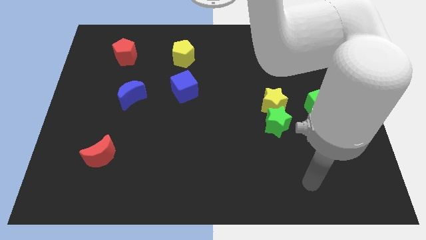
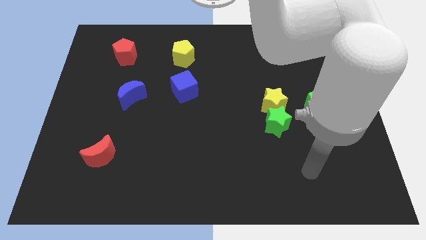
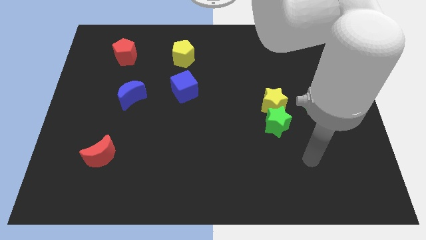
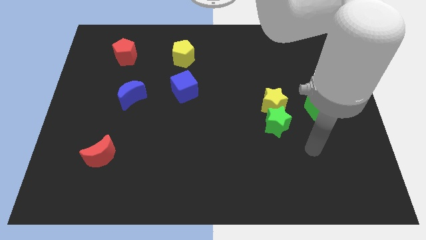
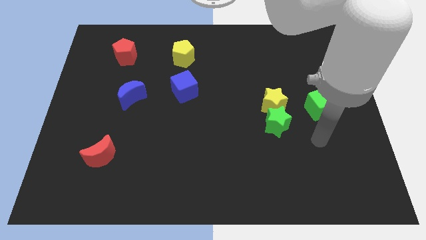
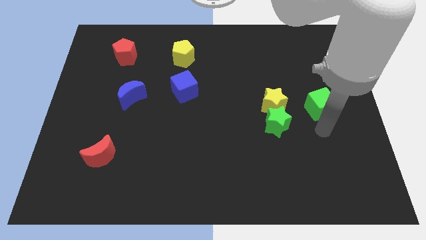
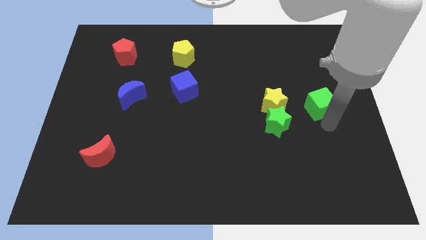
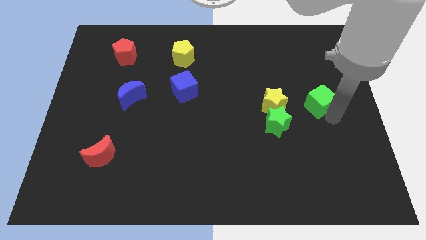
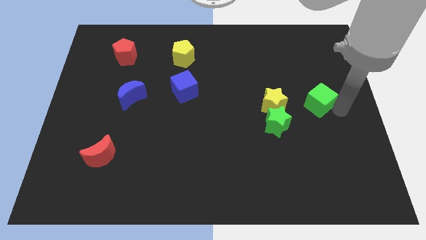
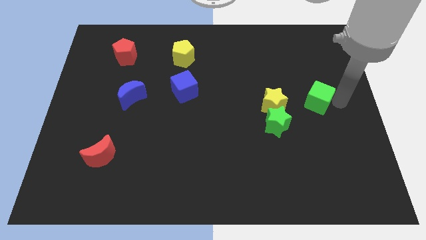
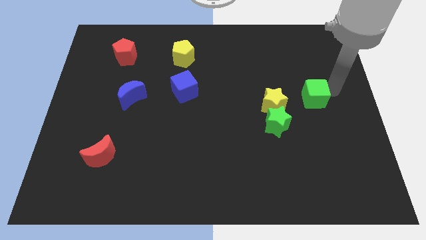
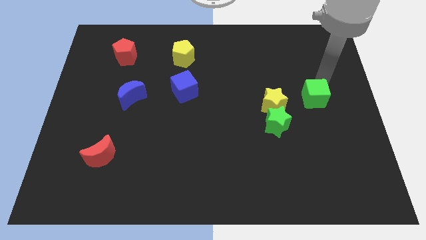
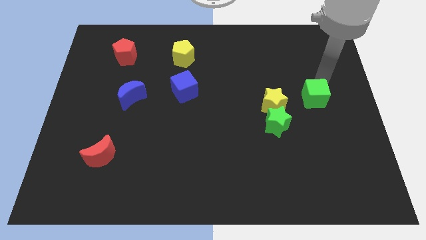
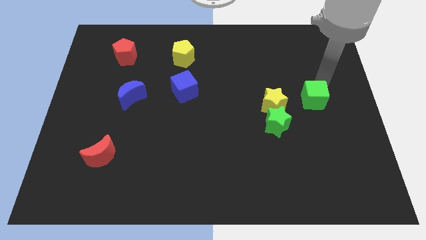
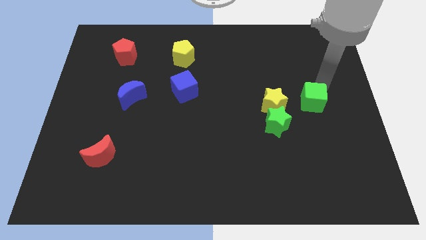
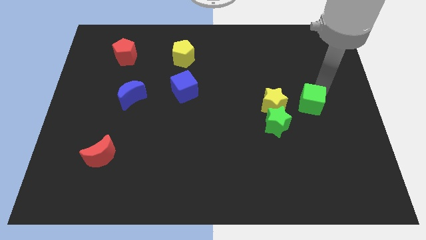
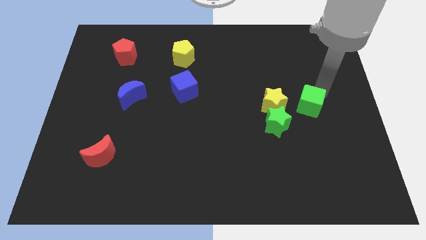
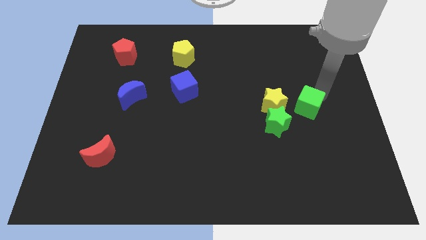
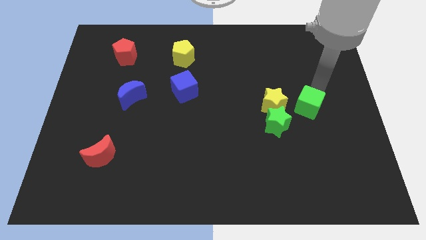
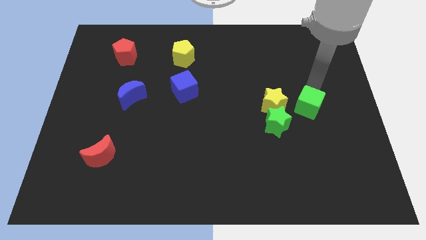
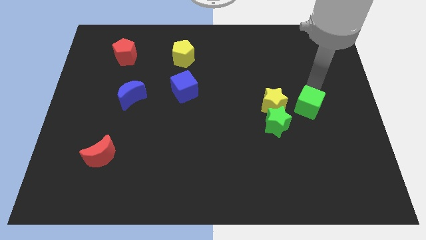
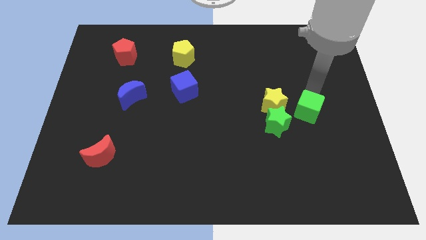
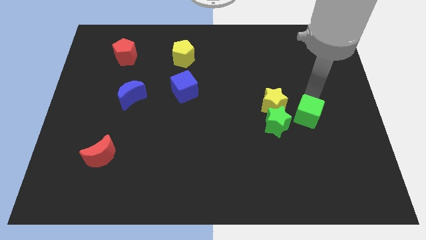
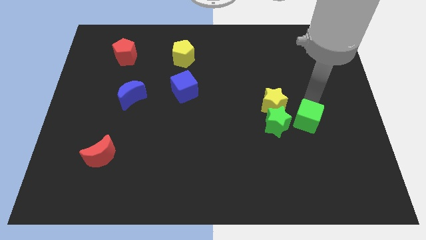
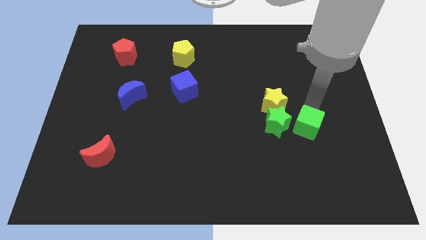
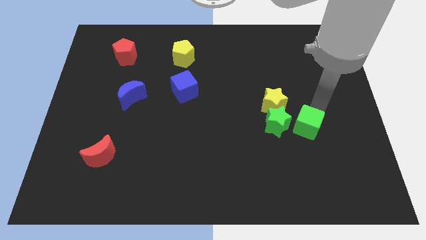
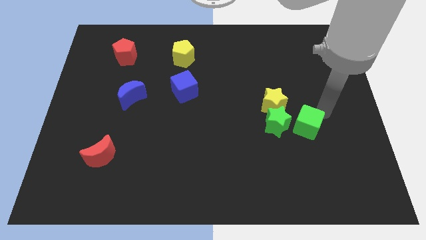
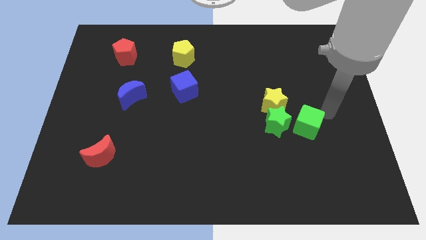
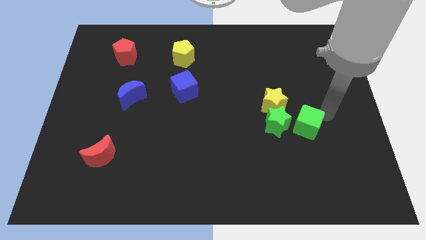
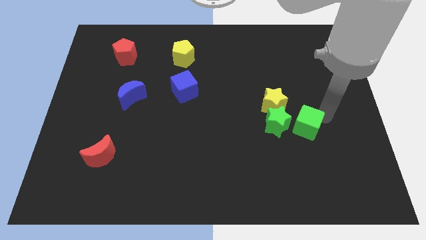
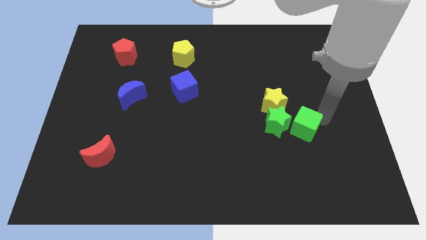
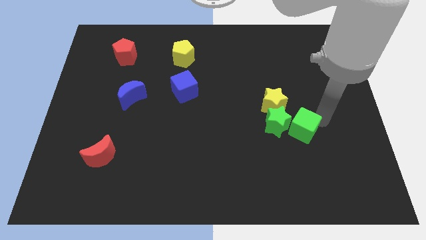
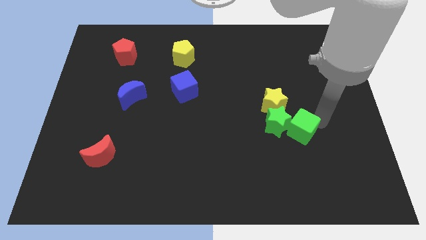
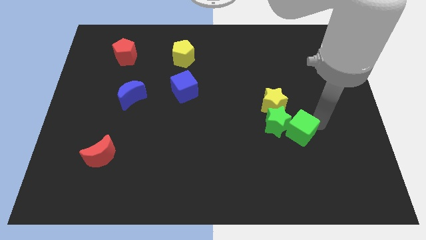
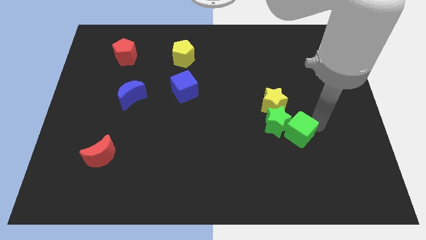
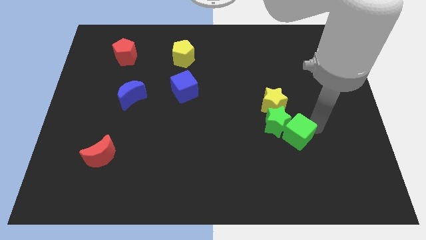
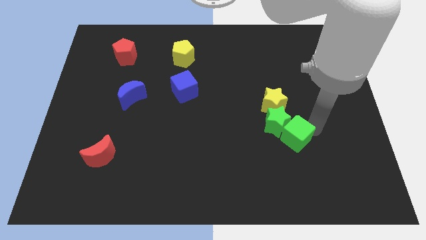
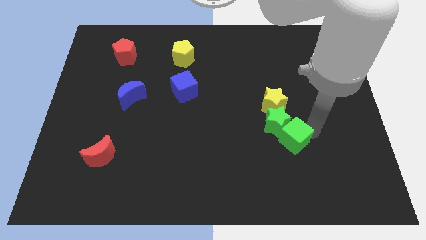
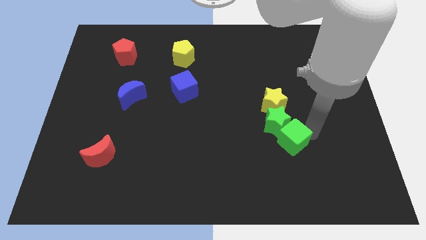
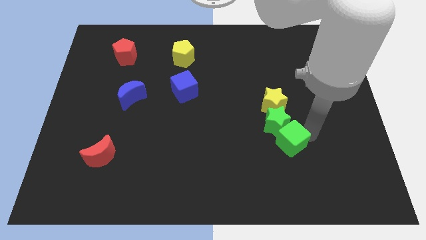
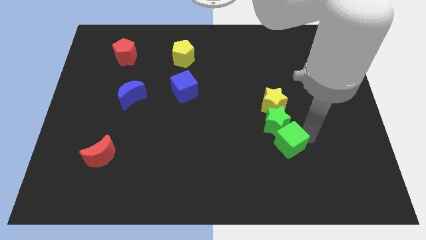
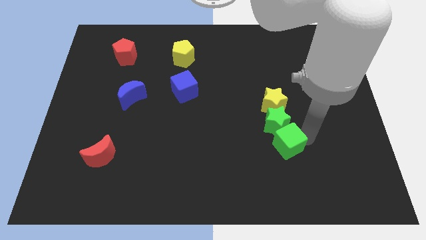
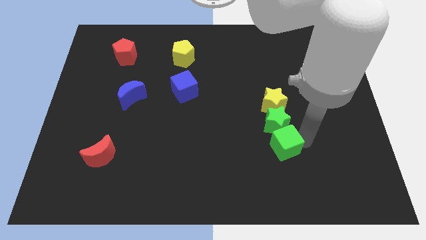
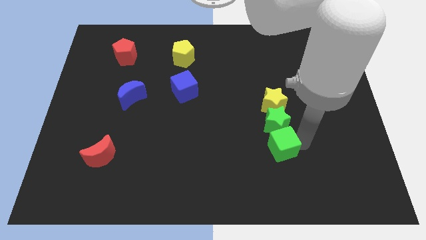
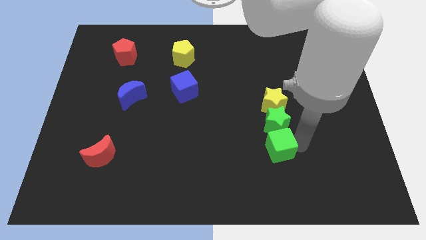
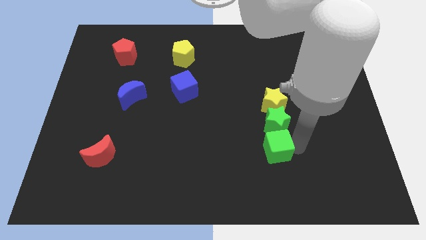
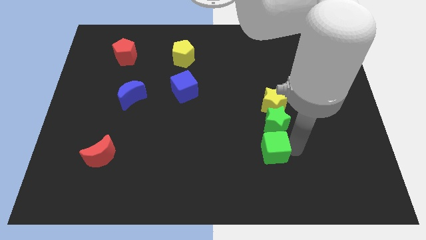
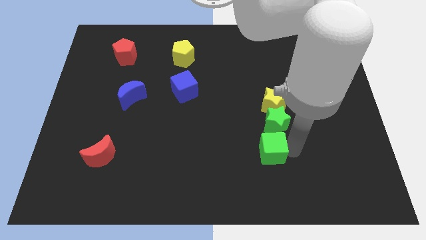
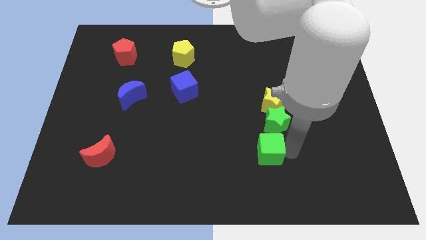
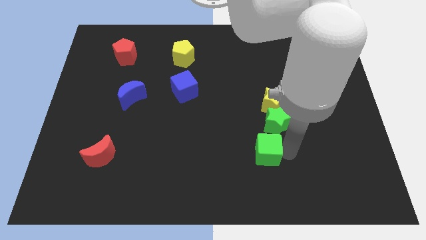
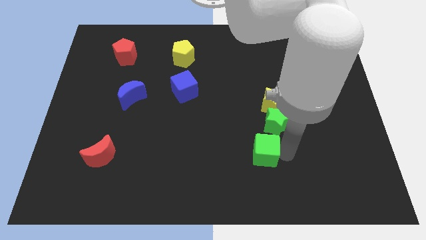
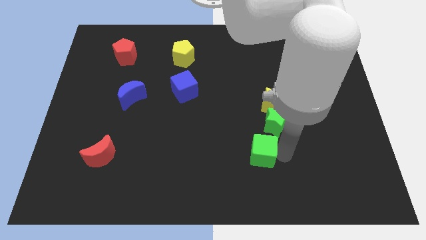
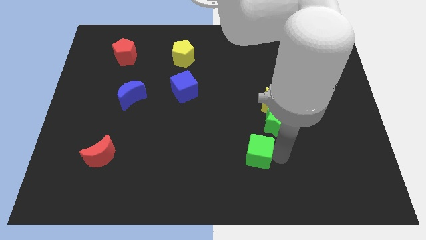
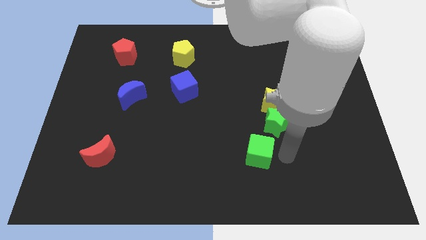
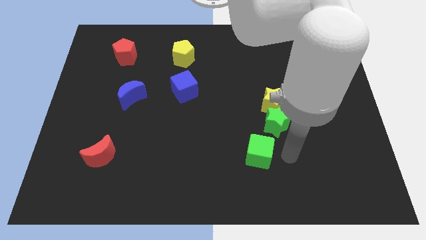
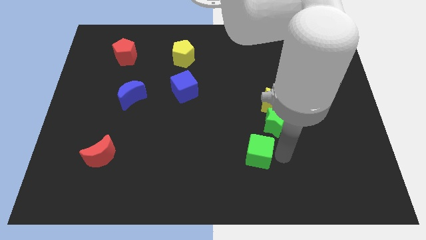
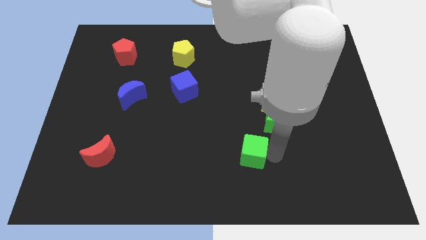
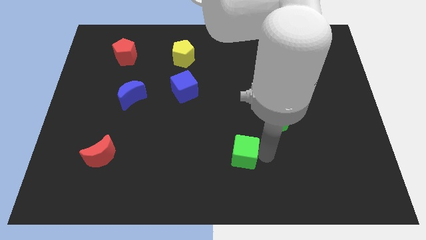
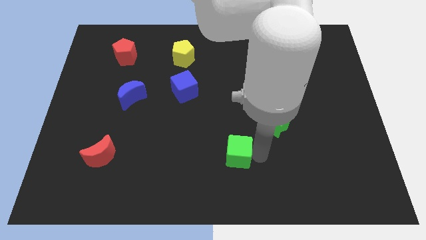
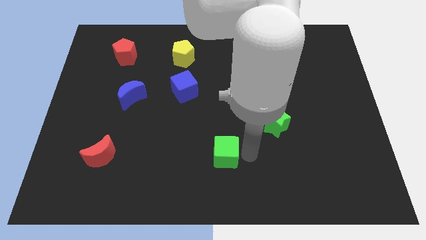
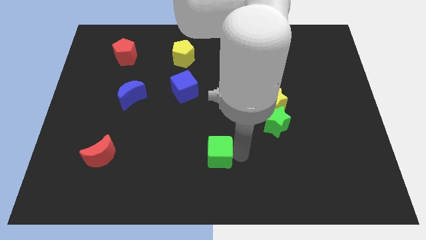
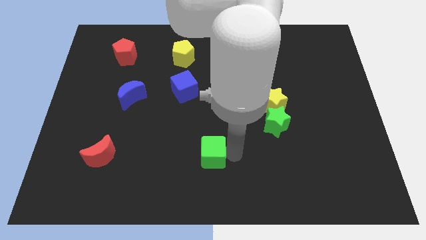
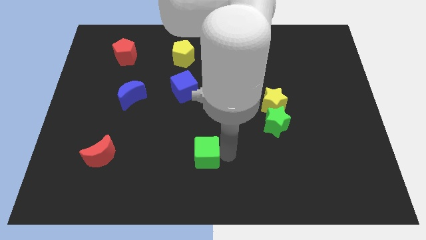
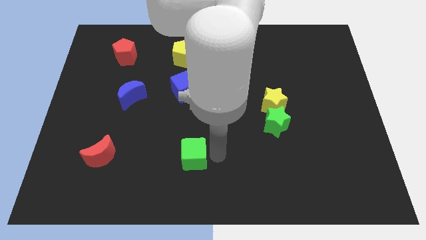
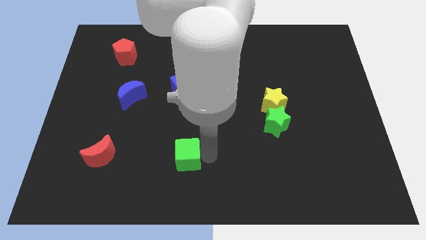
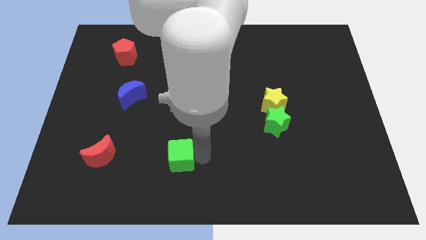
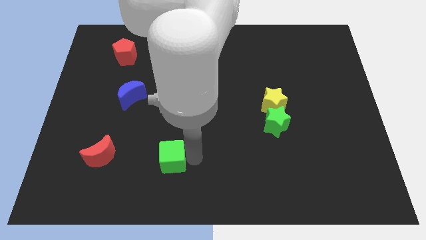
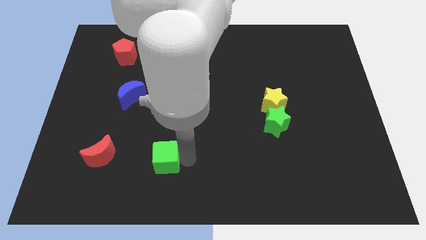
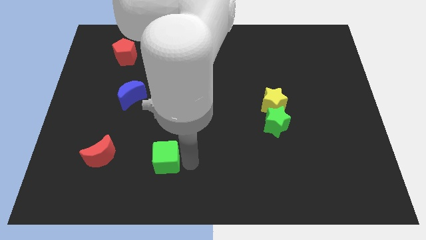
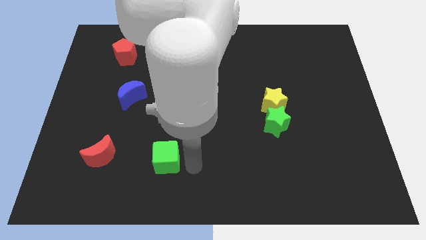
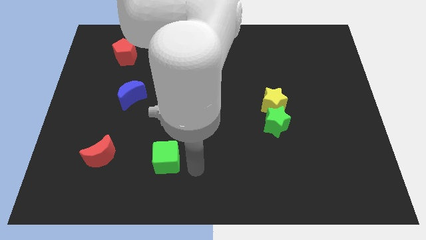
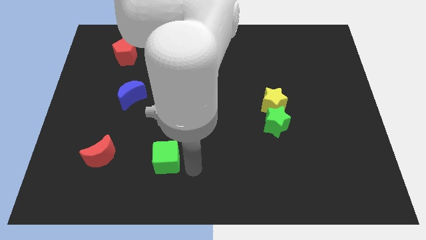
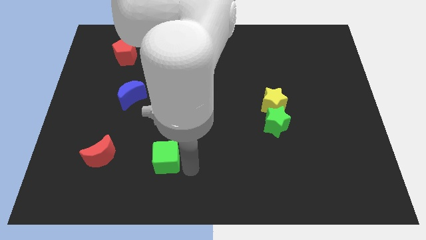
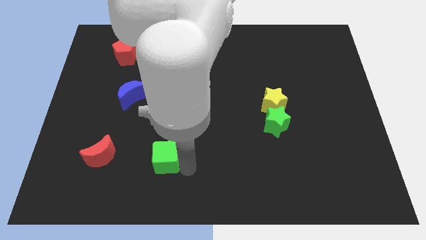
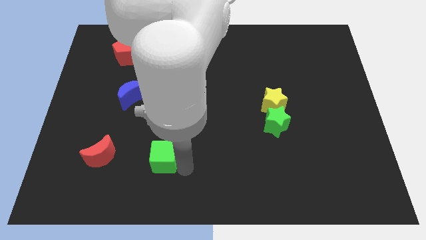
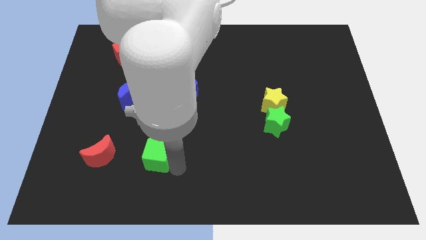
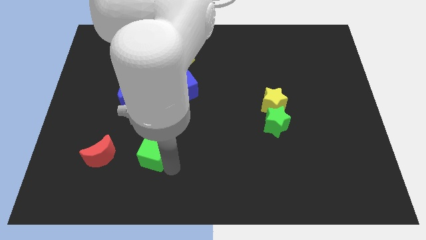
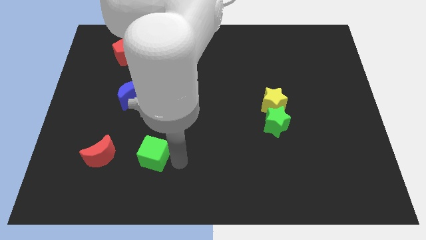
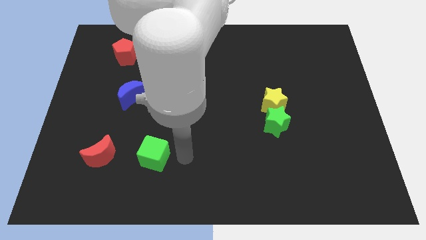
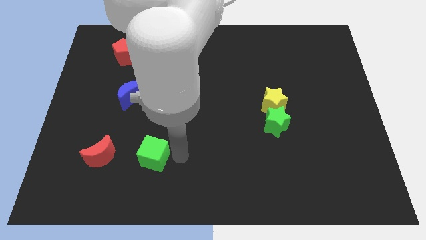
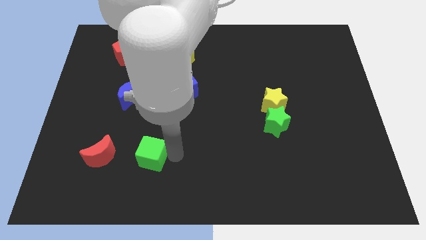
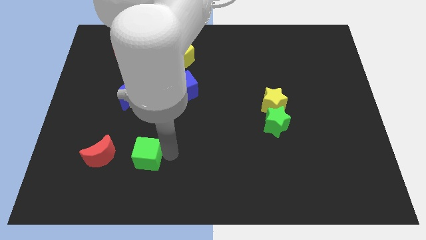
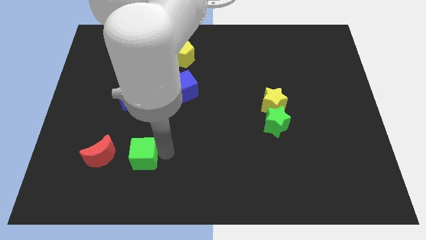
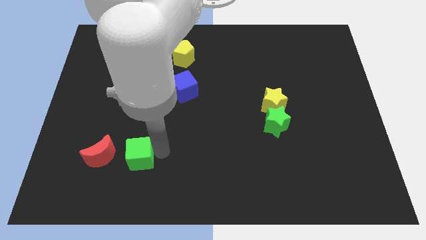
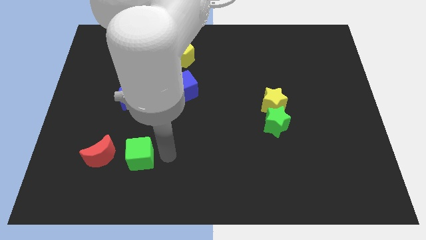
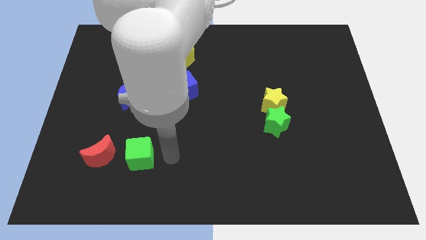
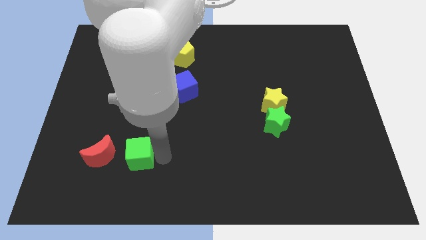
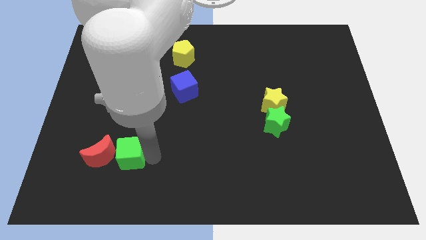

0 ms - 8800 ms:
move the green cube close to the red moon
